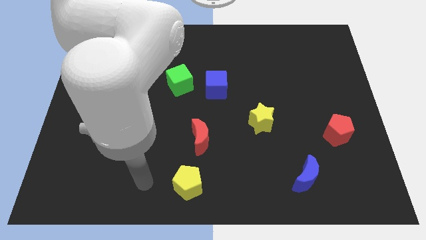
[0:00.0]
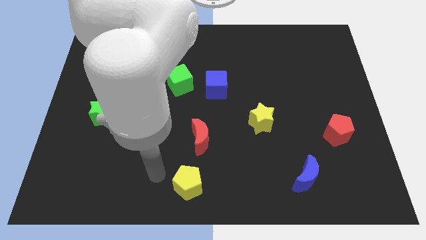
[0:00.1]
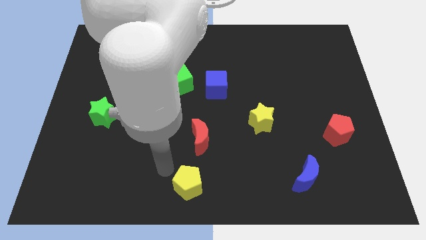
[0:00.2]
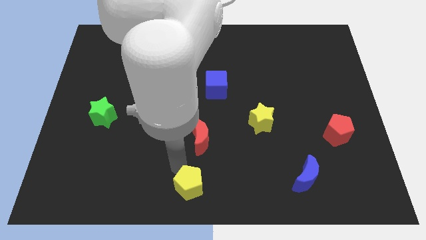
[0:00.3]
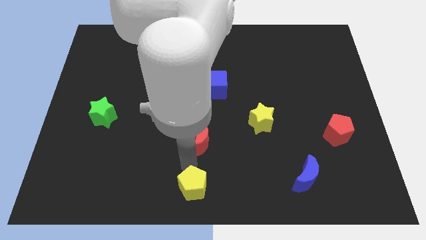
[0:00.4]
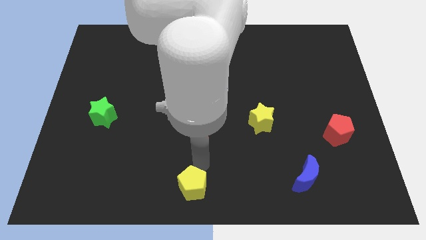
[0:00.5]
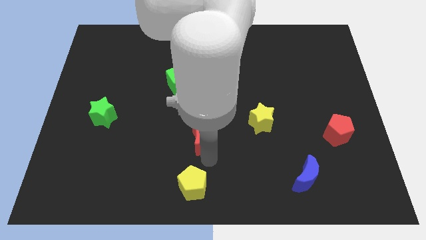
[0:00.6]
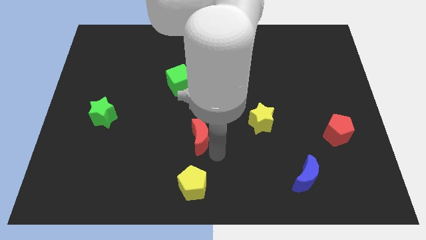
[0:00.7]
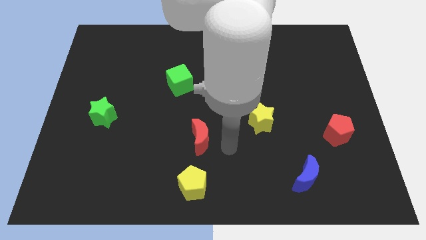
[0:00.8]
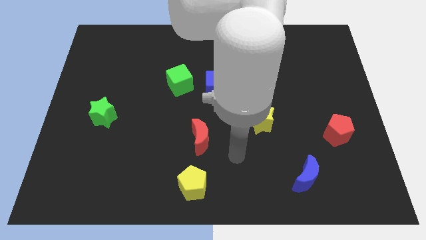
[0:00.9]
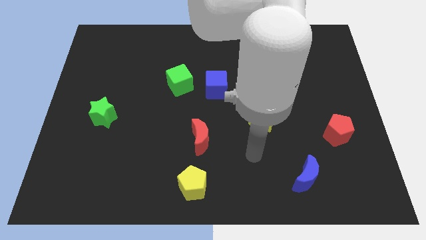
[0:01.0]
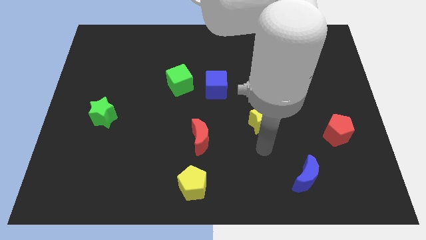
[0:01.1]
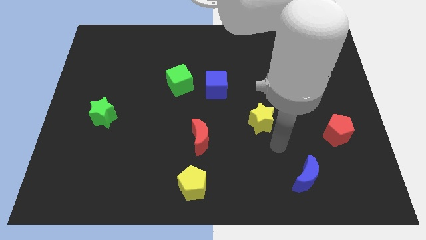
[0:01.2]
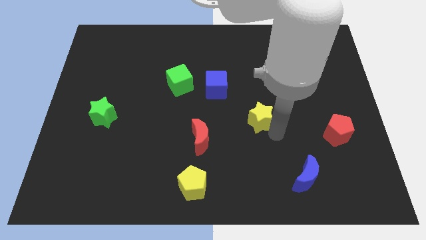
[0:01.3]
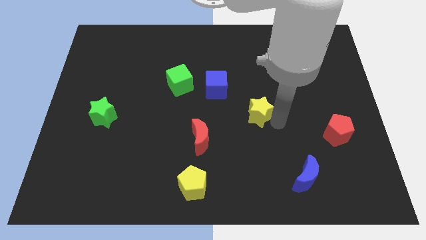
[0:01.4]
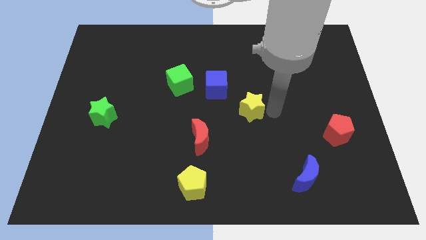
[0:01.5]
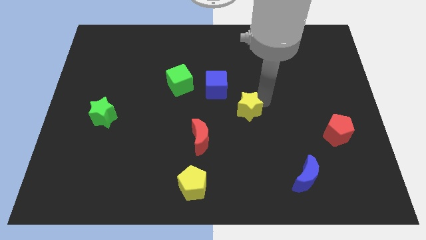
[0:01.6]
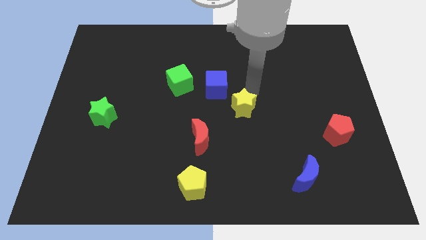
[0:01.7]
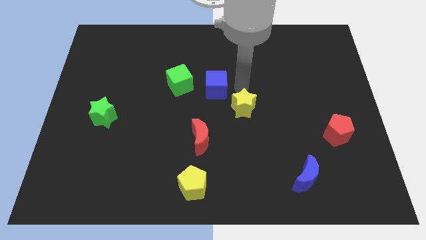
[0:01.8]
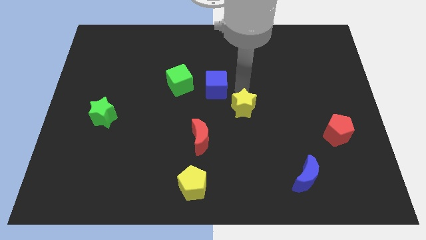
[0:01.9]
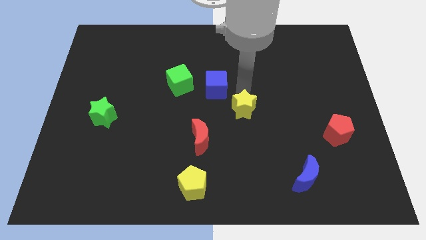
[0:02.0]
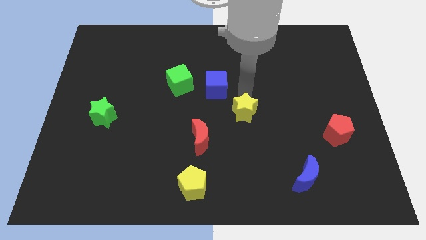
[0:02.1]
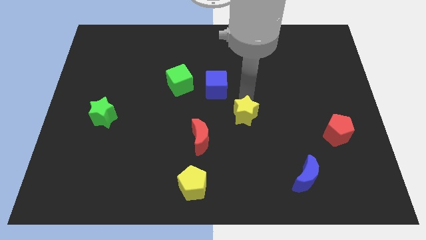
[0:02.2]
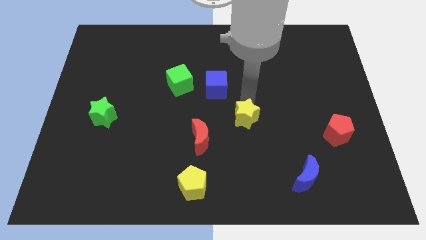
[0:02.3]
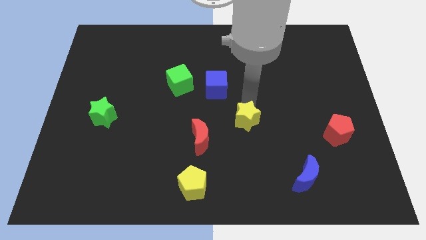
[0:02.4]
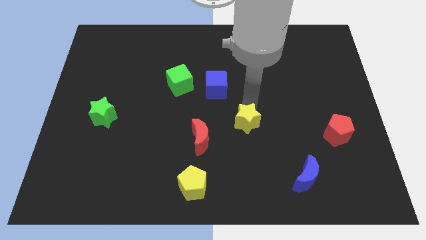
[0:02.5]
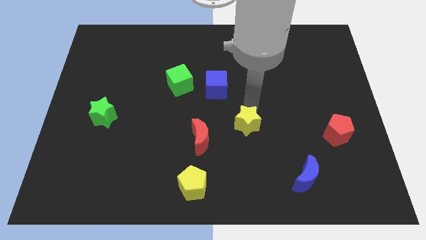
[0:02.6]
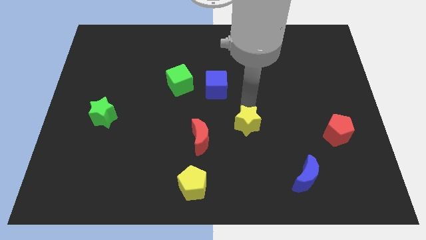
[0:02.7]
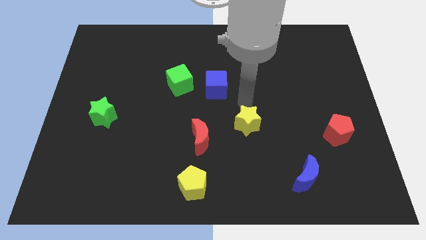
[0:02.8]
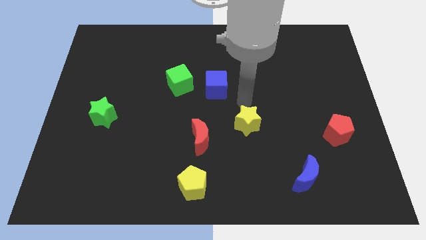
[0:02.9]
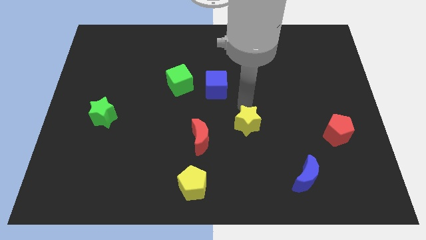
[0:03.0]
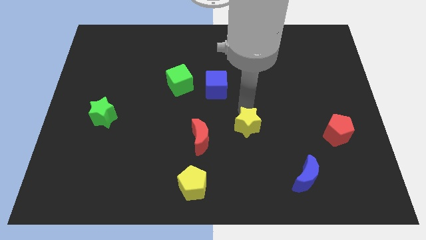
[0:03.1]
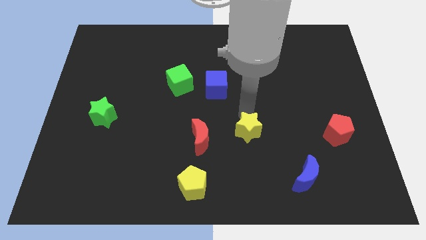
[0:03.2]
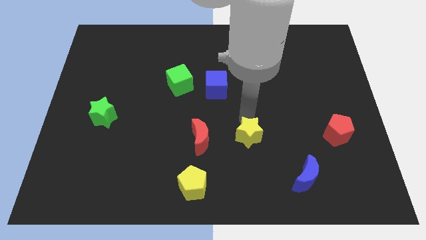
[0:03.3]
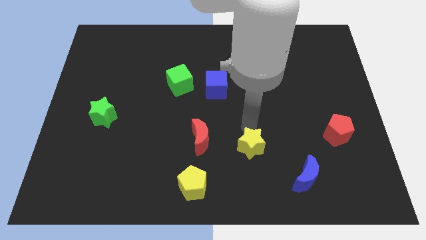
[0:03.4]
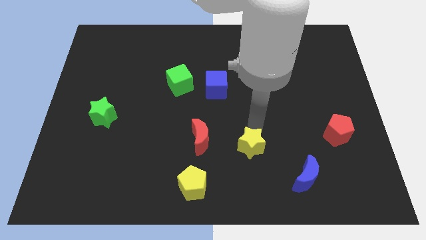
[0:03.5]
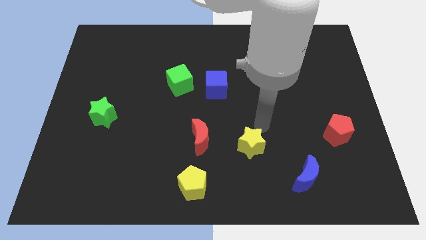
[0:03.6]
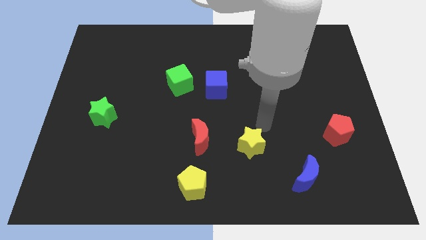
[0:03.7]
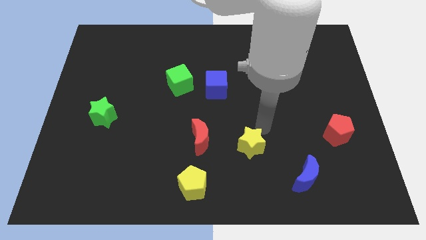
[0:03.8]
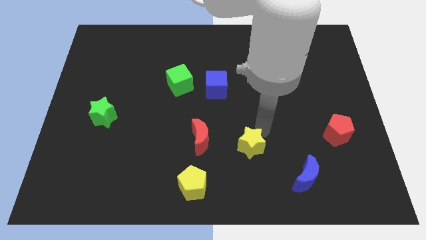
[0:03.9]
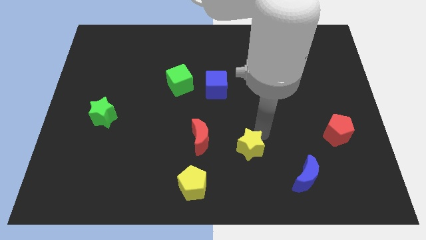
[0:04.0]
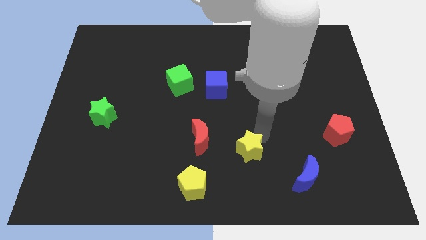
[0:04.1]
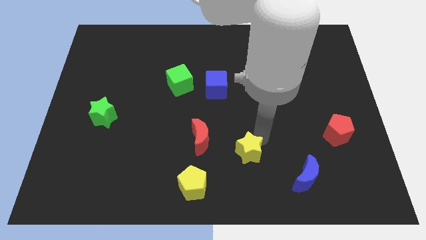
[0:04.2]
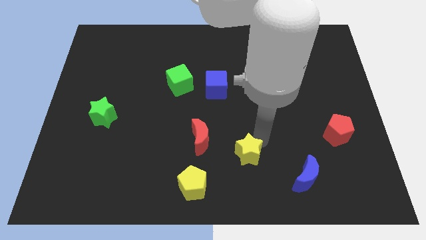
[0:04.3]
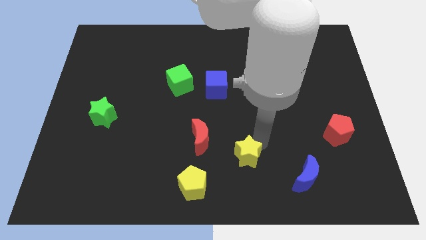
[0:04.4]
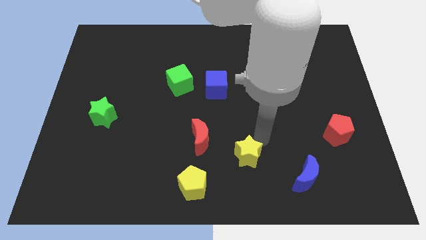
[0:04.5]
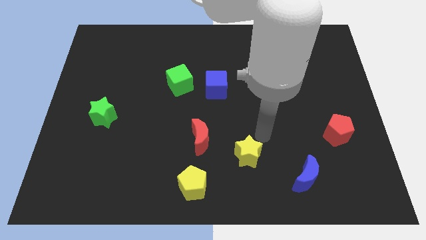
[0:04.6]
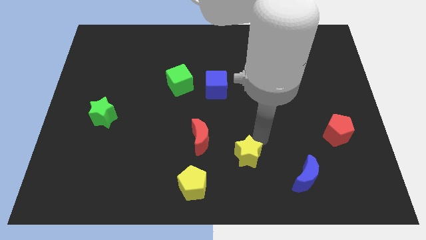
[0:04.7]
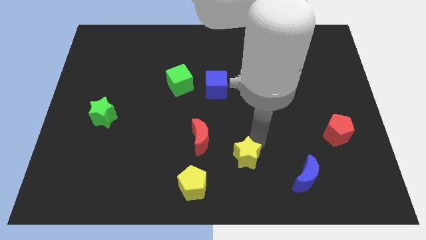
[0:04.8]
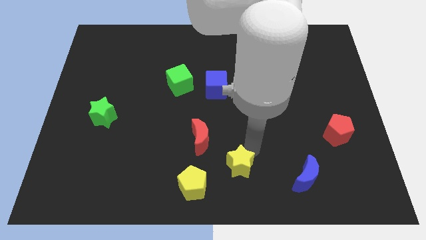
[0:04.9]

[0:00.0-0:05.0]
push the yellow star to the bottom side

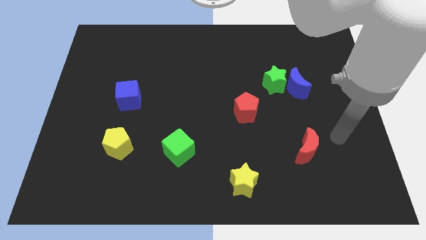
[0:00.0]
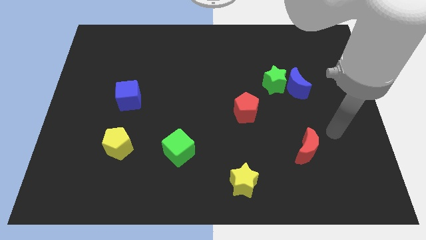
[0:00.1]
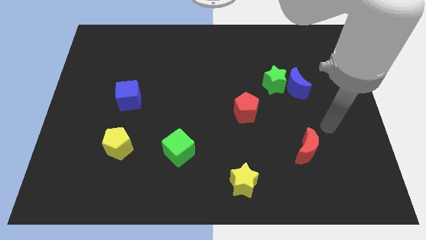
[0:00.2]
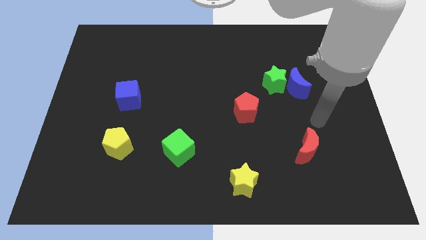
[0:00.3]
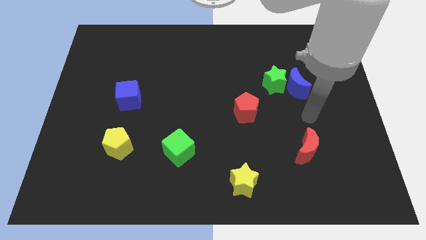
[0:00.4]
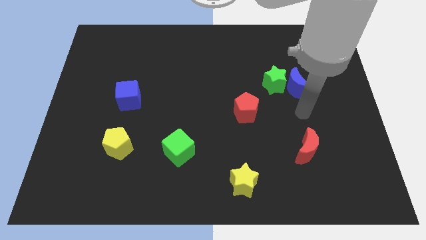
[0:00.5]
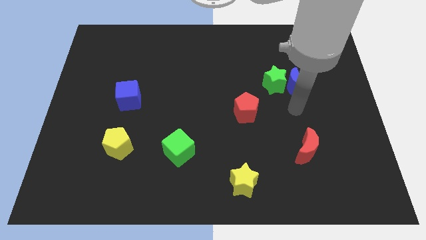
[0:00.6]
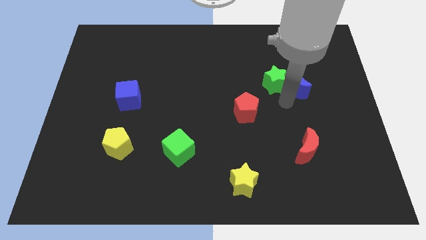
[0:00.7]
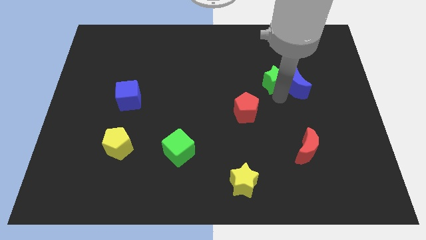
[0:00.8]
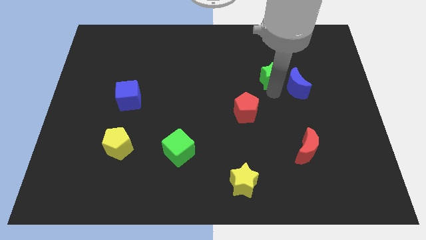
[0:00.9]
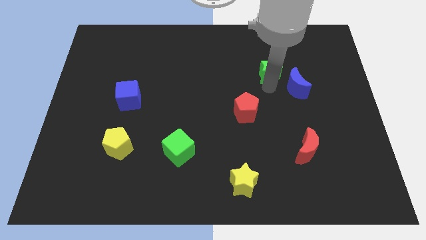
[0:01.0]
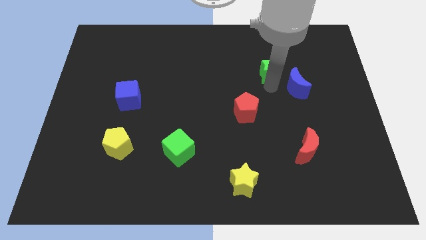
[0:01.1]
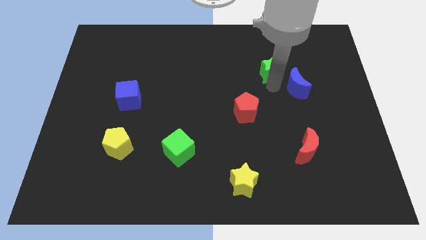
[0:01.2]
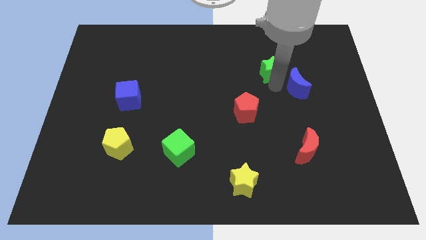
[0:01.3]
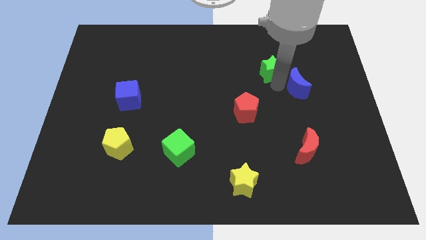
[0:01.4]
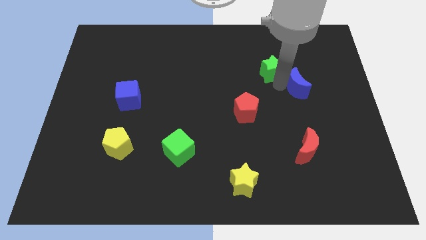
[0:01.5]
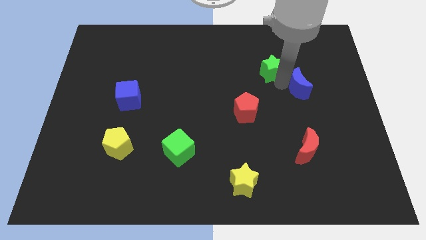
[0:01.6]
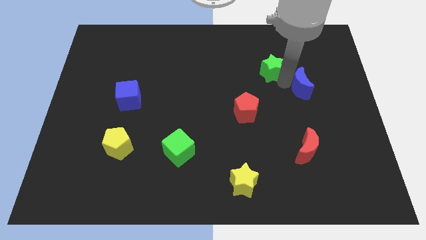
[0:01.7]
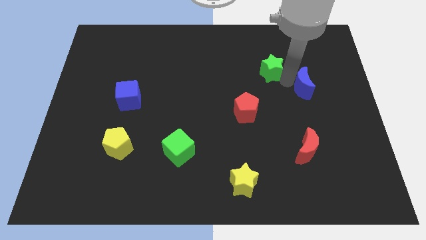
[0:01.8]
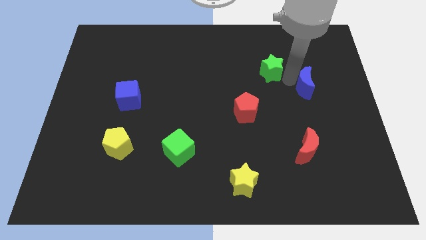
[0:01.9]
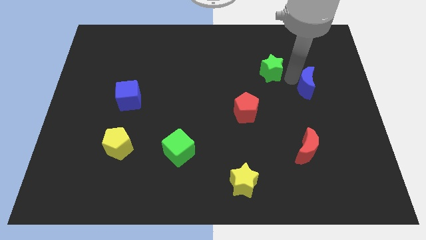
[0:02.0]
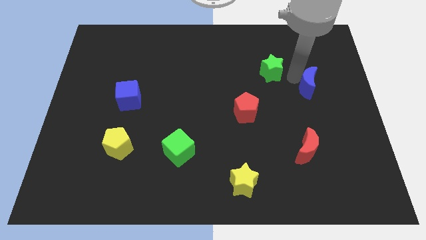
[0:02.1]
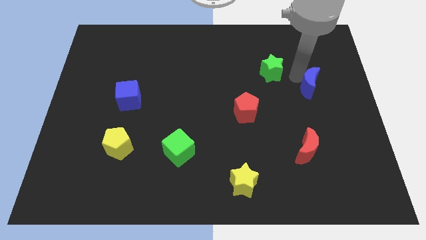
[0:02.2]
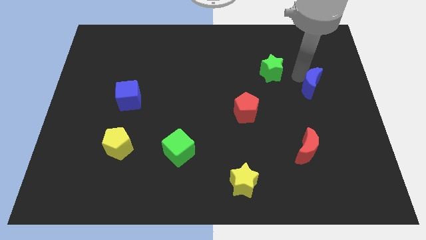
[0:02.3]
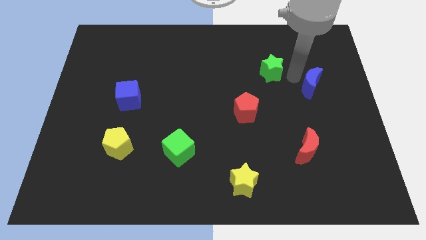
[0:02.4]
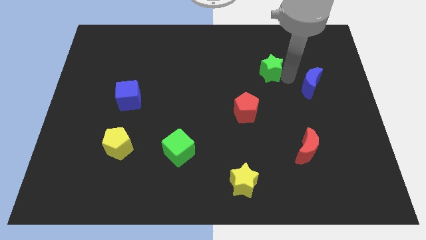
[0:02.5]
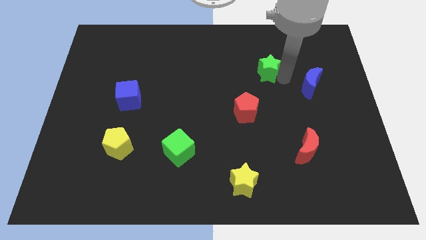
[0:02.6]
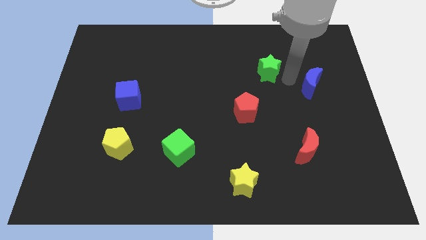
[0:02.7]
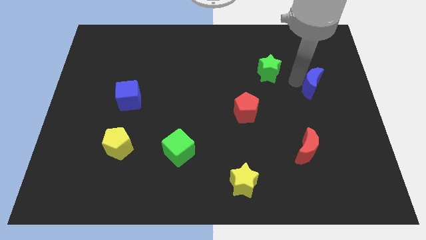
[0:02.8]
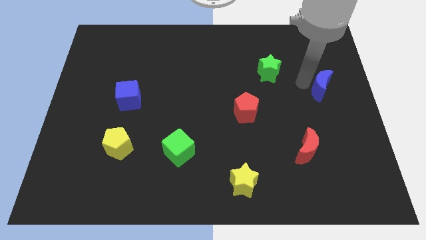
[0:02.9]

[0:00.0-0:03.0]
slide the blue moon to the center right
